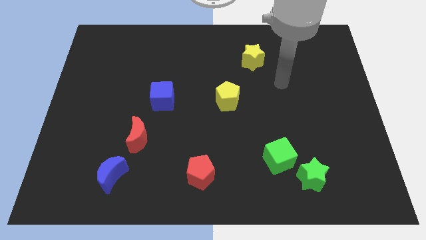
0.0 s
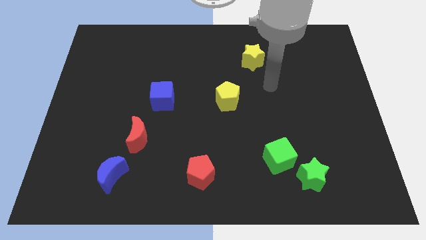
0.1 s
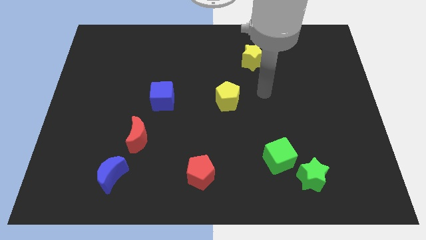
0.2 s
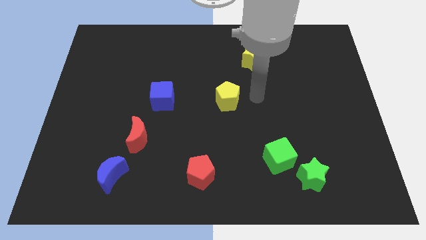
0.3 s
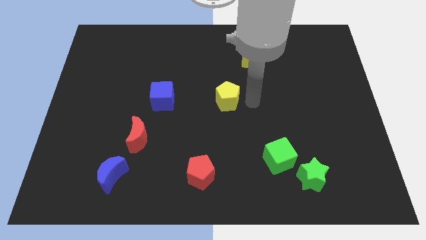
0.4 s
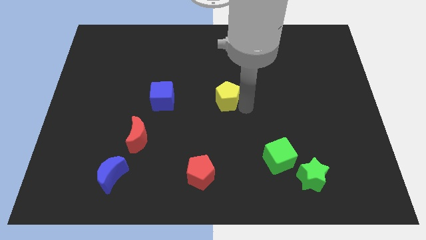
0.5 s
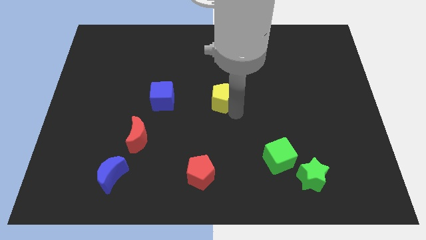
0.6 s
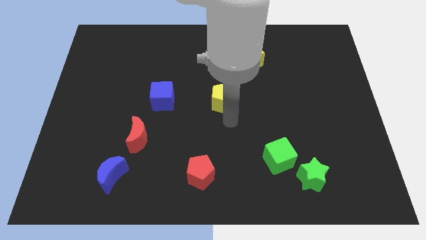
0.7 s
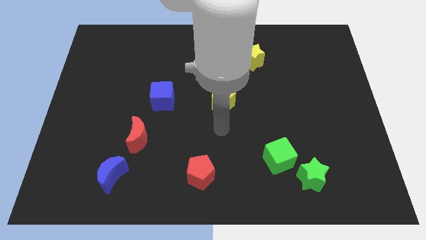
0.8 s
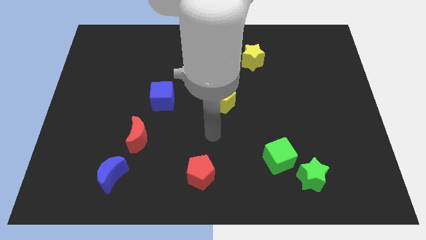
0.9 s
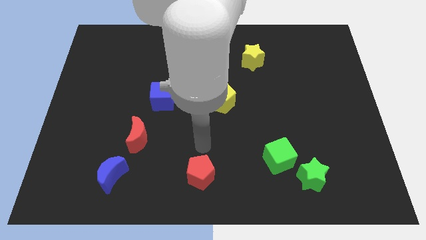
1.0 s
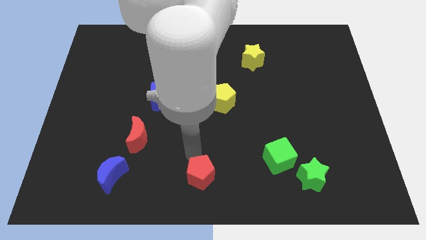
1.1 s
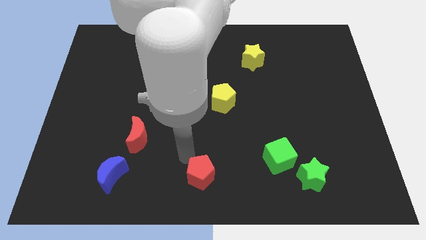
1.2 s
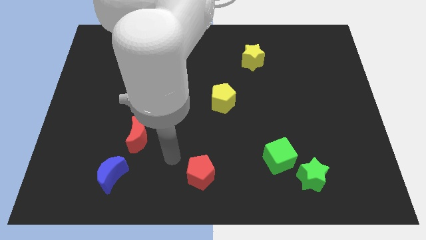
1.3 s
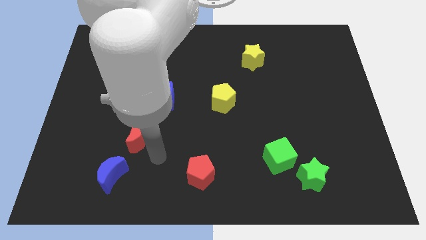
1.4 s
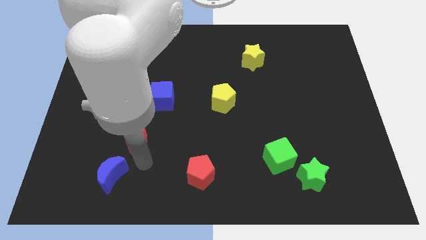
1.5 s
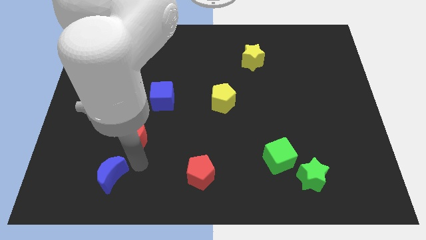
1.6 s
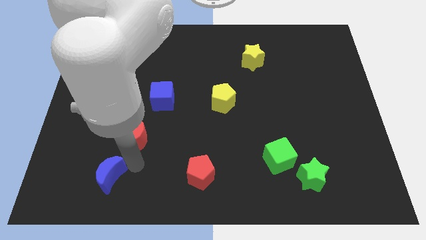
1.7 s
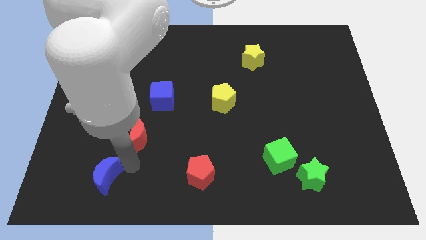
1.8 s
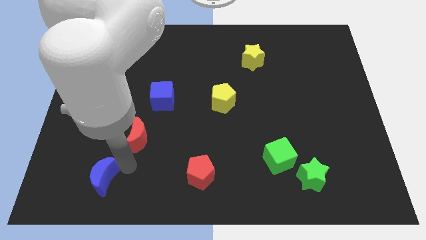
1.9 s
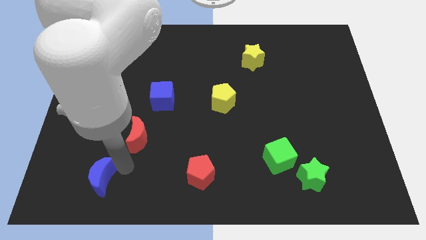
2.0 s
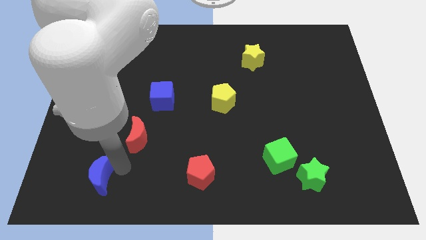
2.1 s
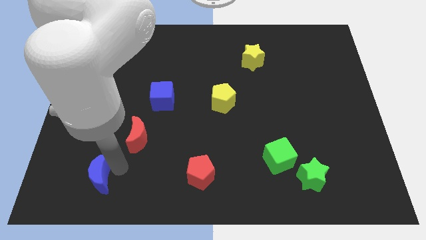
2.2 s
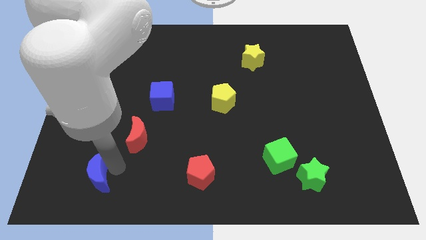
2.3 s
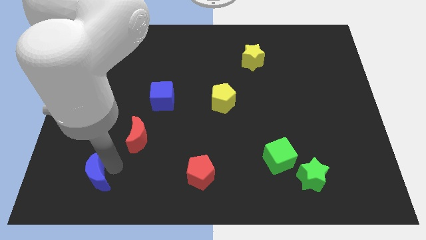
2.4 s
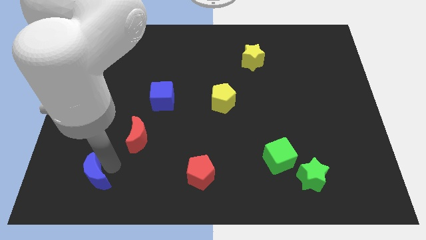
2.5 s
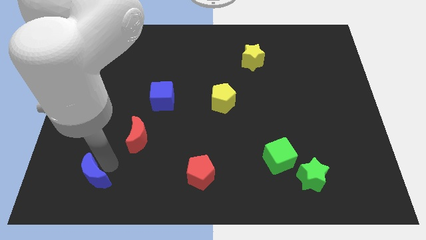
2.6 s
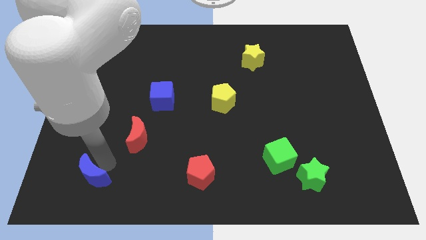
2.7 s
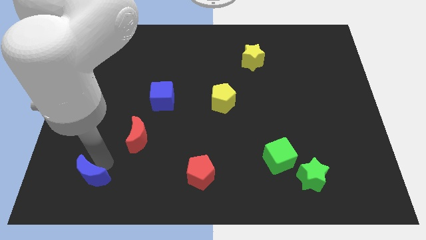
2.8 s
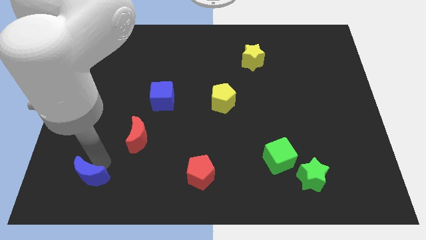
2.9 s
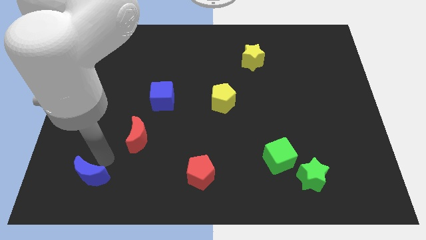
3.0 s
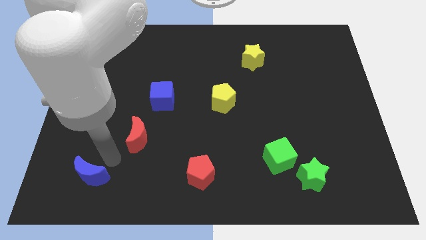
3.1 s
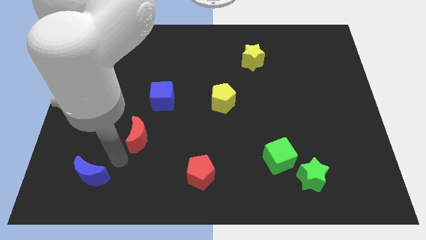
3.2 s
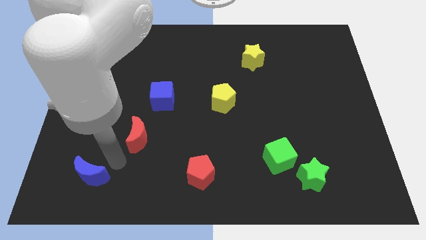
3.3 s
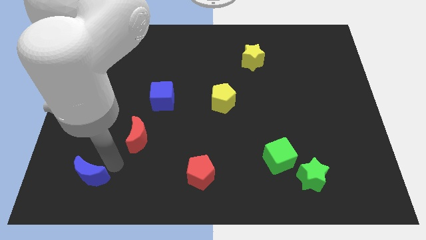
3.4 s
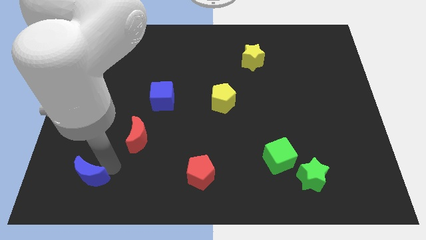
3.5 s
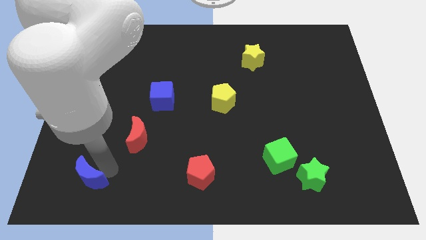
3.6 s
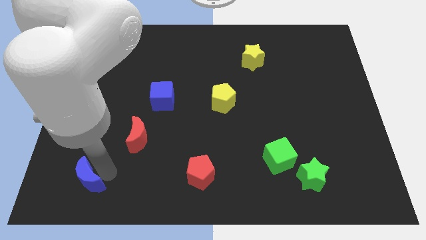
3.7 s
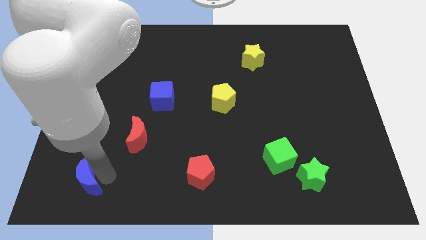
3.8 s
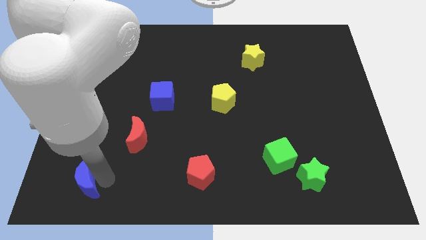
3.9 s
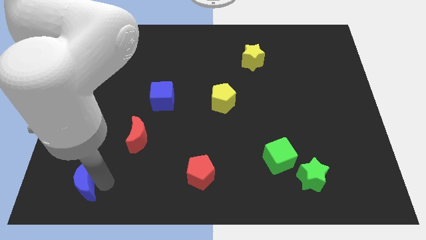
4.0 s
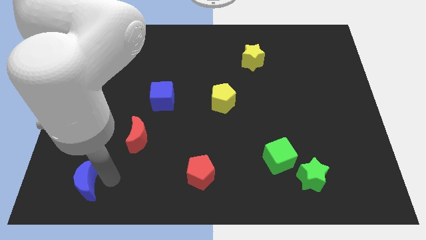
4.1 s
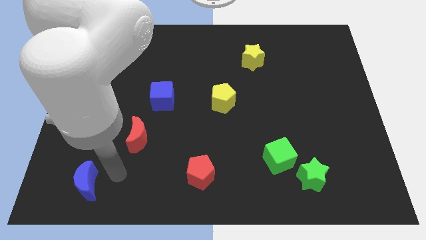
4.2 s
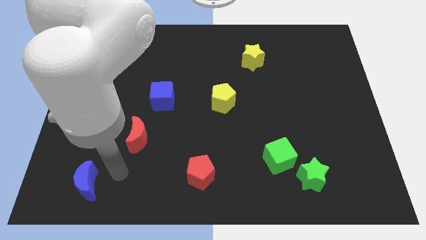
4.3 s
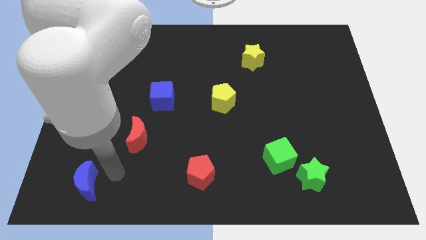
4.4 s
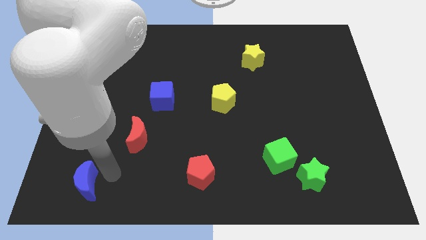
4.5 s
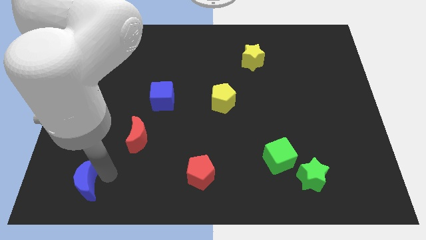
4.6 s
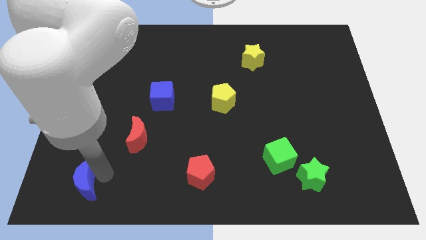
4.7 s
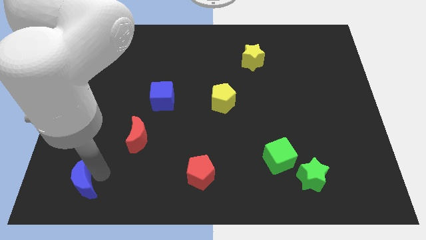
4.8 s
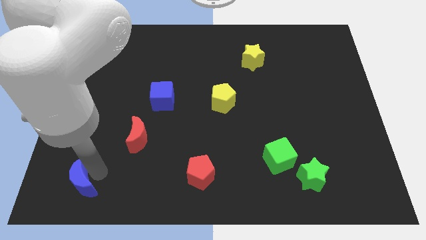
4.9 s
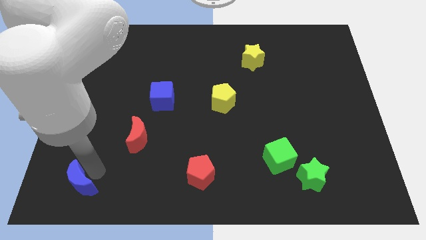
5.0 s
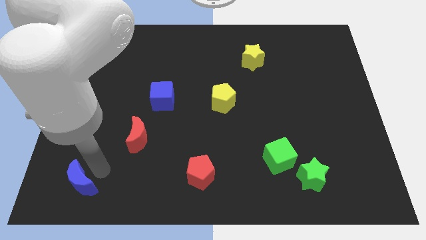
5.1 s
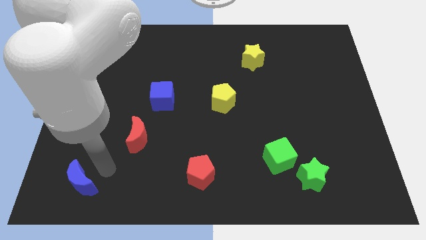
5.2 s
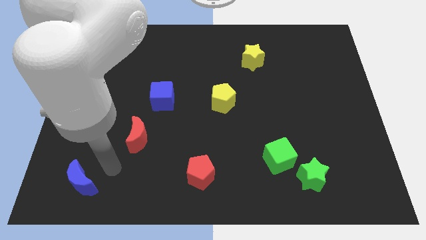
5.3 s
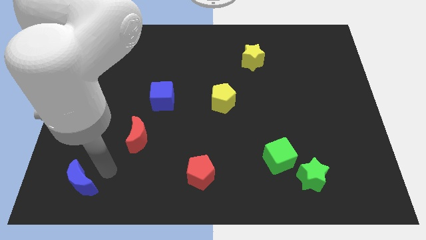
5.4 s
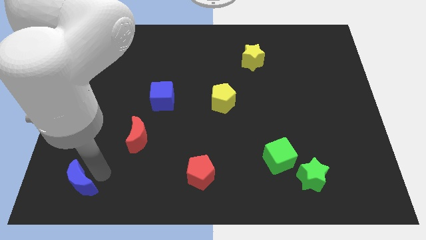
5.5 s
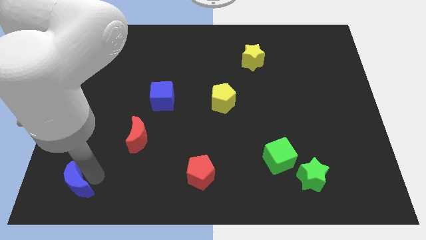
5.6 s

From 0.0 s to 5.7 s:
move the blue moon to the bottom left of the board
